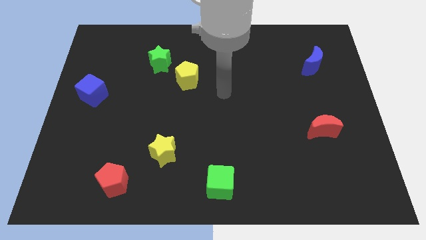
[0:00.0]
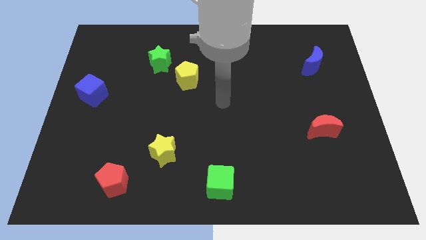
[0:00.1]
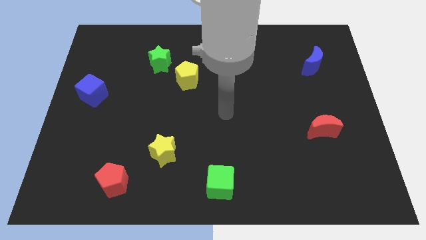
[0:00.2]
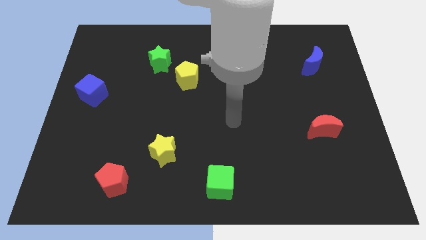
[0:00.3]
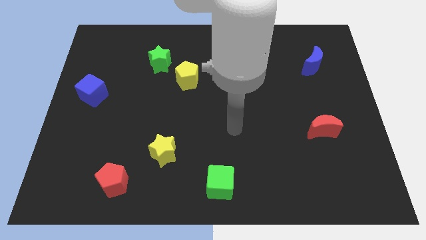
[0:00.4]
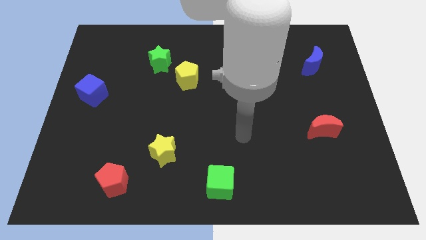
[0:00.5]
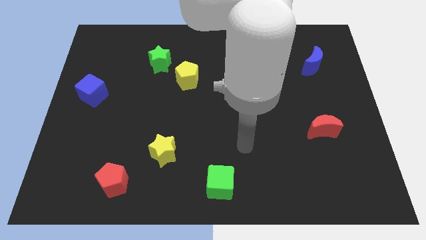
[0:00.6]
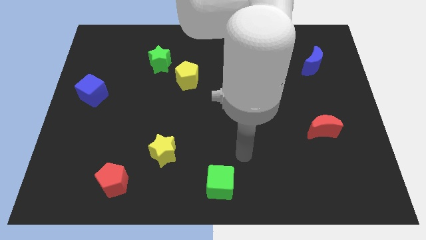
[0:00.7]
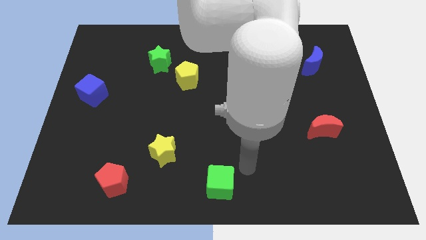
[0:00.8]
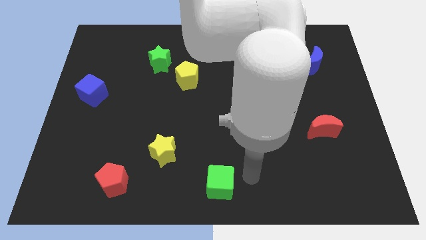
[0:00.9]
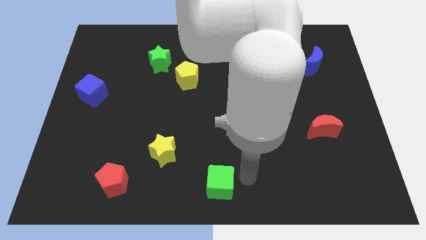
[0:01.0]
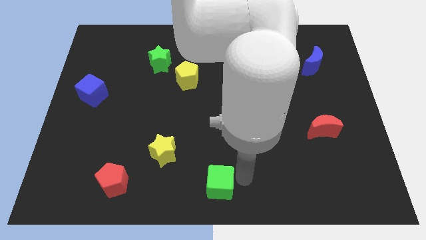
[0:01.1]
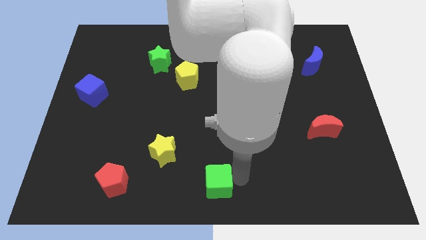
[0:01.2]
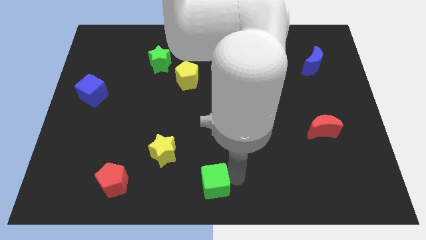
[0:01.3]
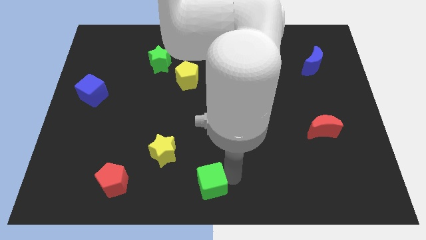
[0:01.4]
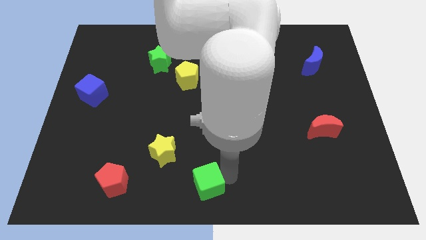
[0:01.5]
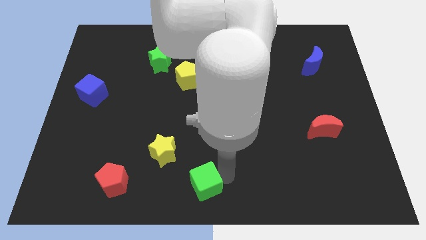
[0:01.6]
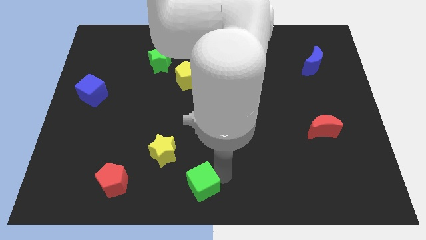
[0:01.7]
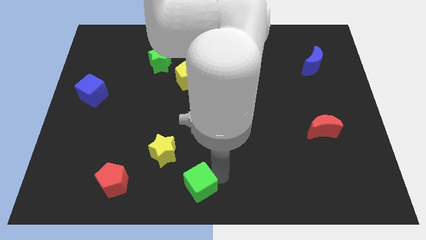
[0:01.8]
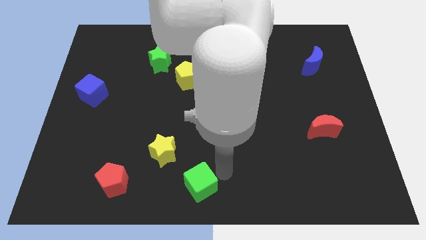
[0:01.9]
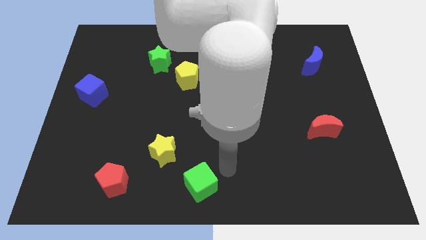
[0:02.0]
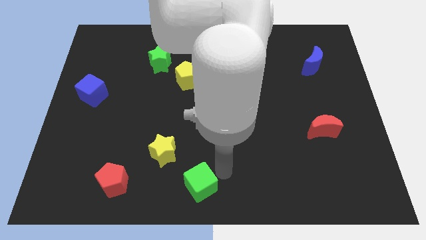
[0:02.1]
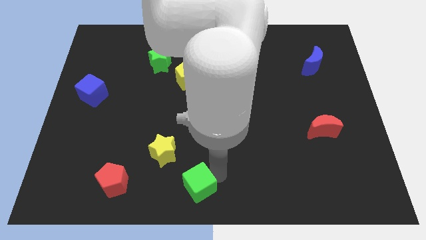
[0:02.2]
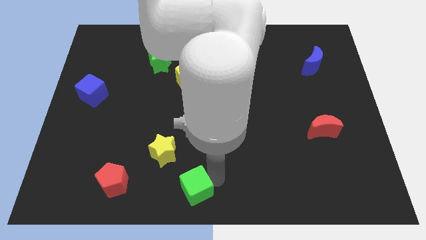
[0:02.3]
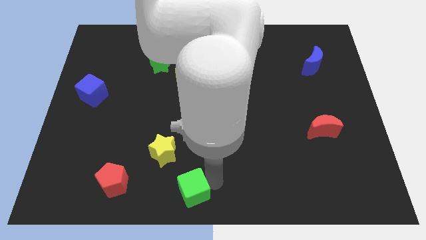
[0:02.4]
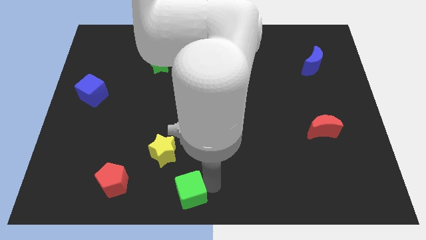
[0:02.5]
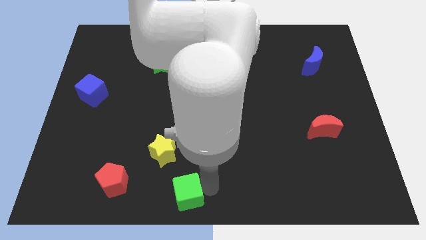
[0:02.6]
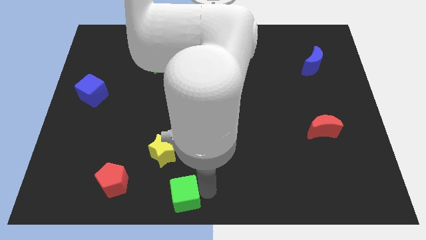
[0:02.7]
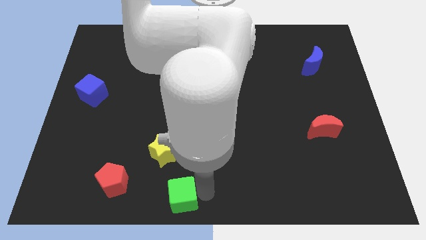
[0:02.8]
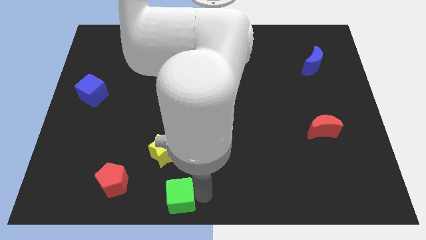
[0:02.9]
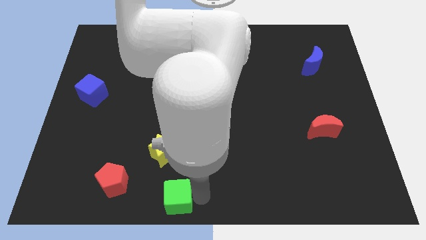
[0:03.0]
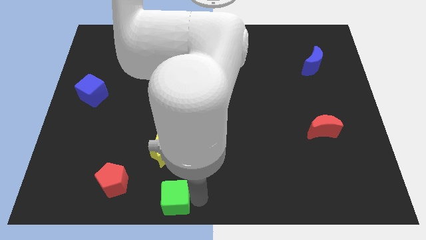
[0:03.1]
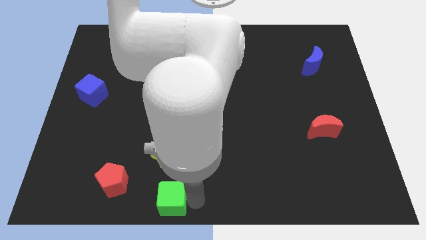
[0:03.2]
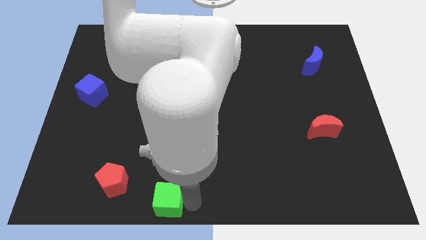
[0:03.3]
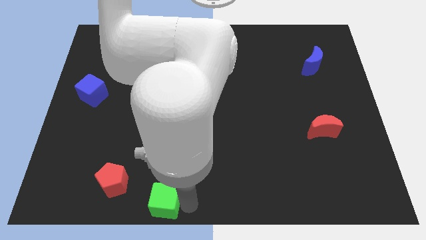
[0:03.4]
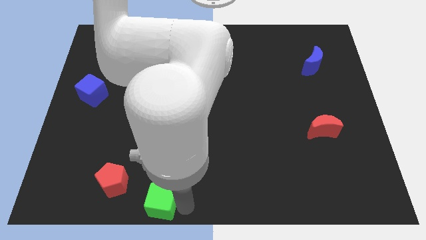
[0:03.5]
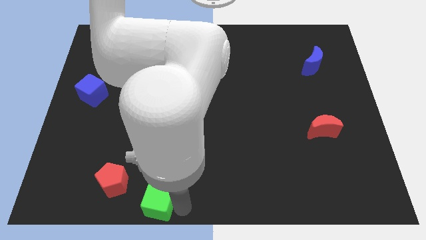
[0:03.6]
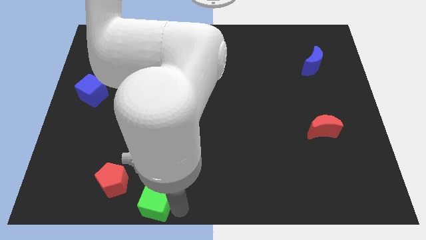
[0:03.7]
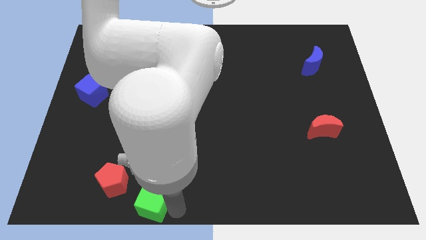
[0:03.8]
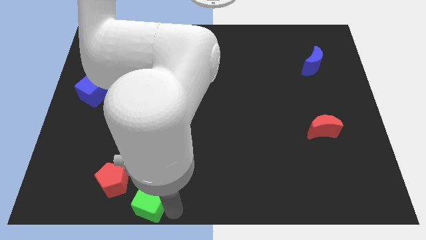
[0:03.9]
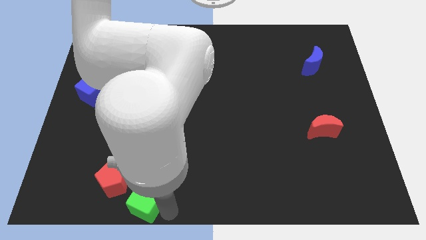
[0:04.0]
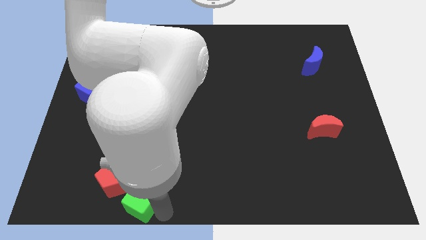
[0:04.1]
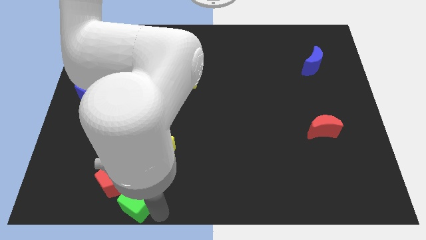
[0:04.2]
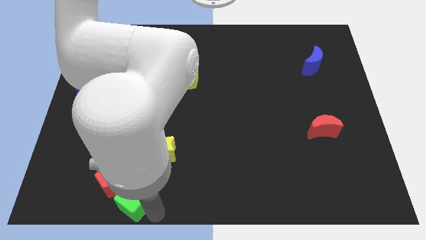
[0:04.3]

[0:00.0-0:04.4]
put the green cube to the red pentagon

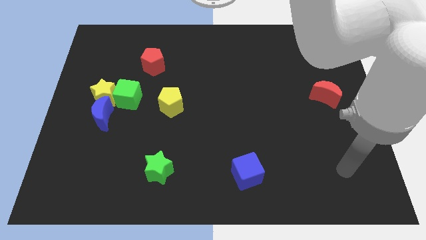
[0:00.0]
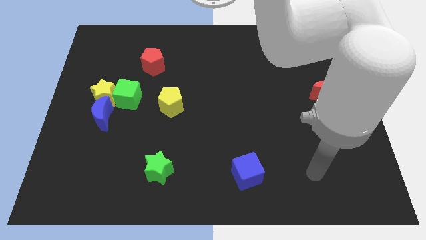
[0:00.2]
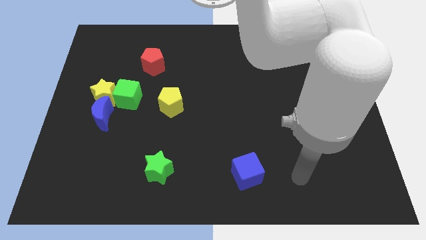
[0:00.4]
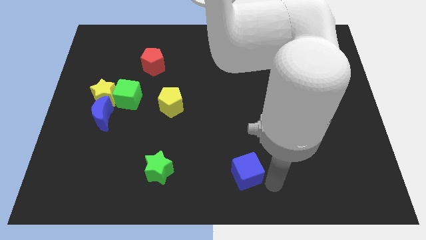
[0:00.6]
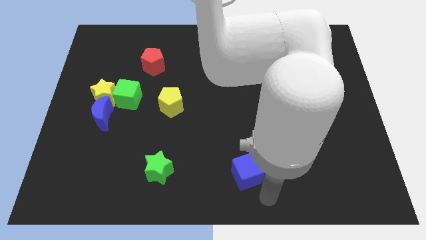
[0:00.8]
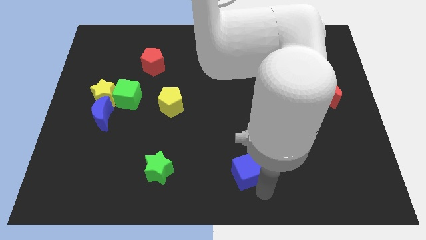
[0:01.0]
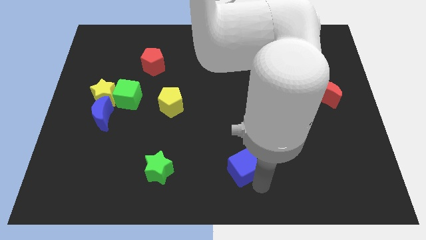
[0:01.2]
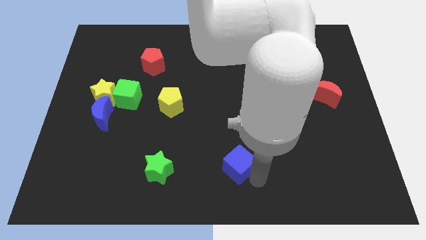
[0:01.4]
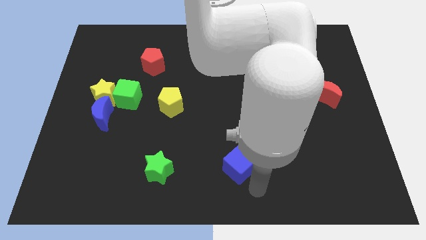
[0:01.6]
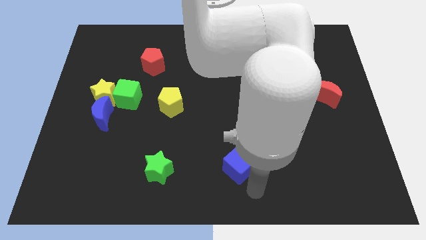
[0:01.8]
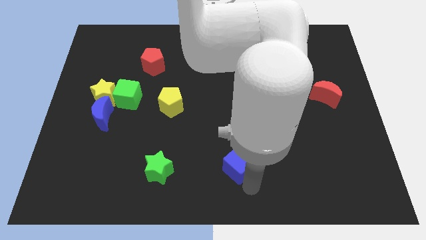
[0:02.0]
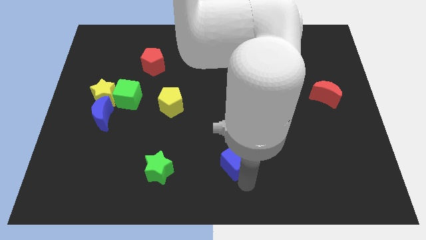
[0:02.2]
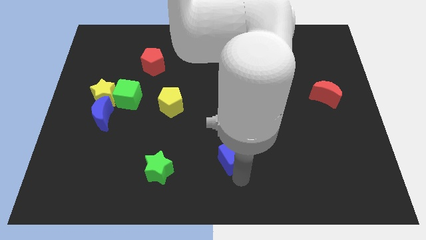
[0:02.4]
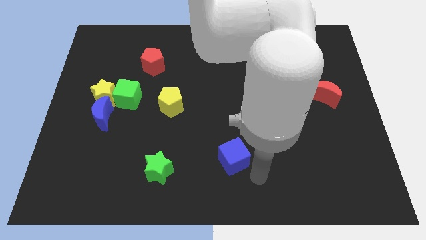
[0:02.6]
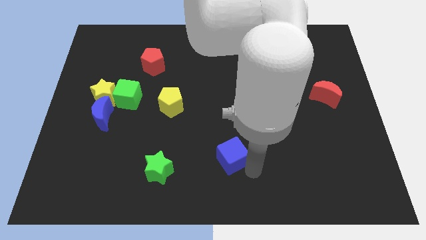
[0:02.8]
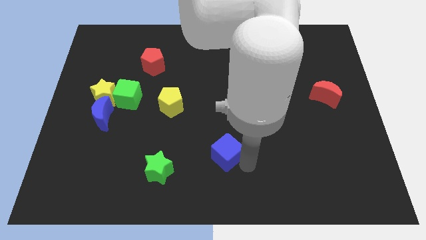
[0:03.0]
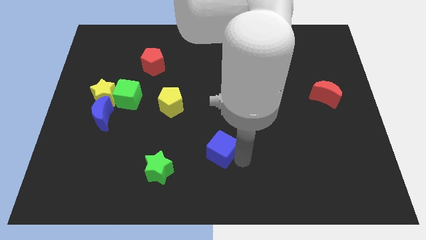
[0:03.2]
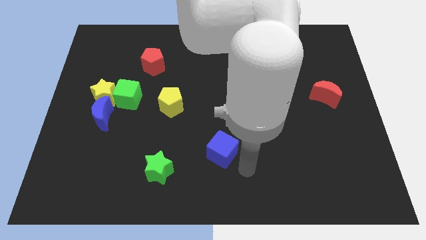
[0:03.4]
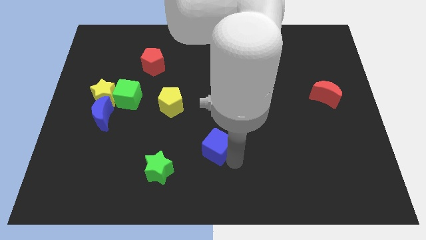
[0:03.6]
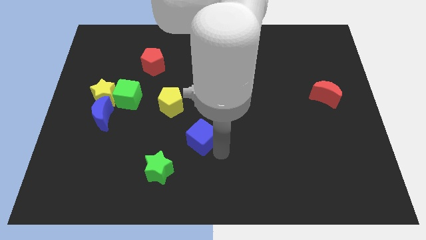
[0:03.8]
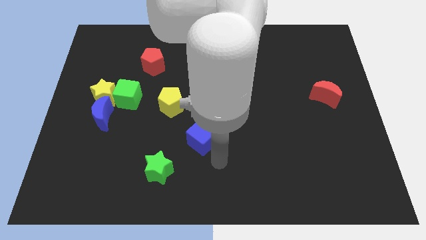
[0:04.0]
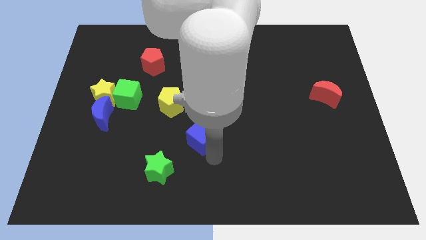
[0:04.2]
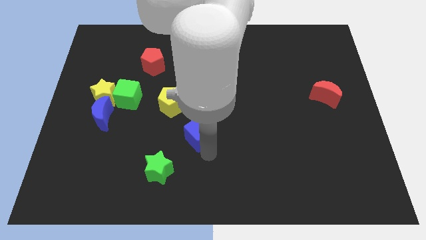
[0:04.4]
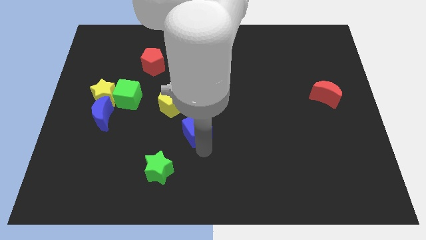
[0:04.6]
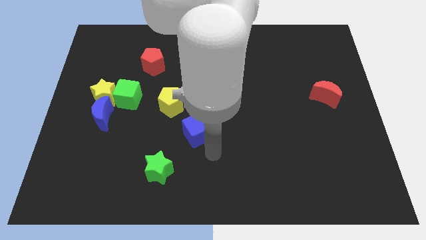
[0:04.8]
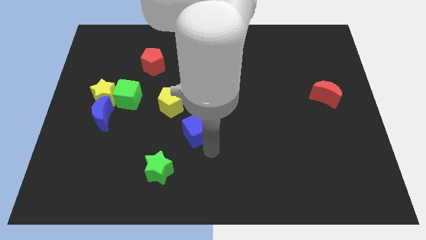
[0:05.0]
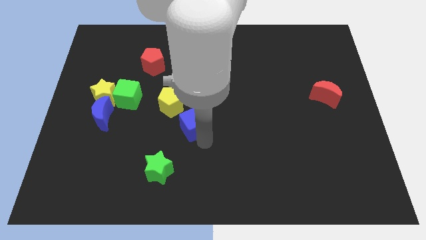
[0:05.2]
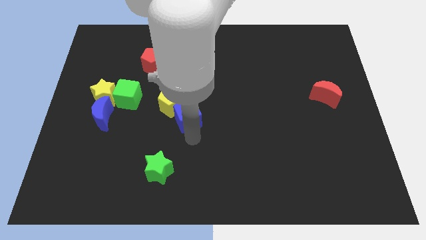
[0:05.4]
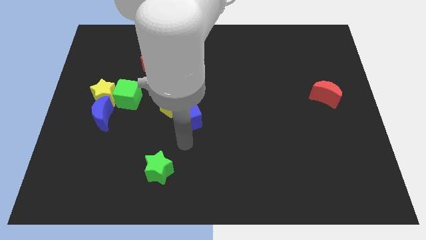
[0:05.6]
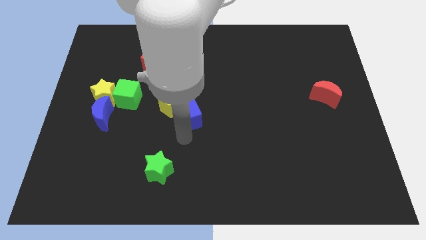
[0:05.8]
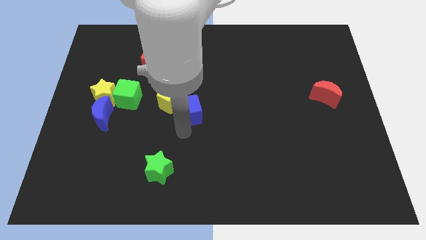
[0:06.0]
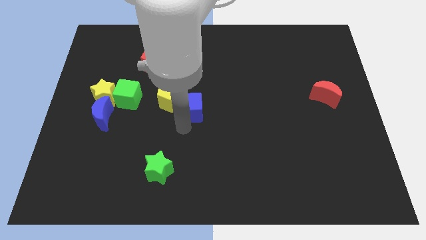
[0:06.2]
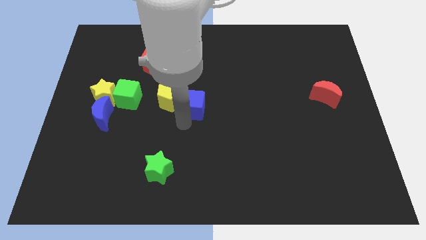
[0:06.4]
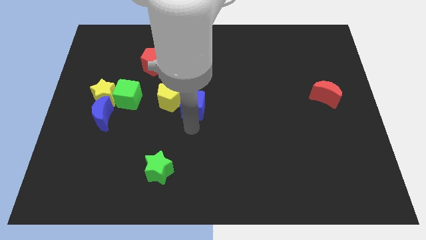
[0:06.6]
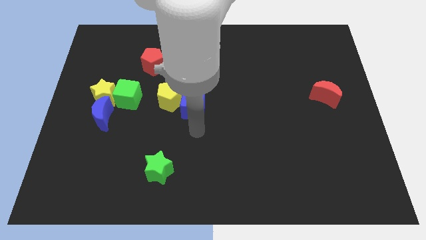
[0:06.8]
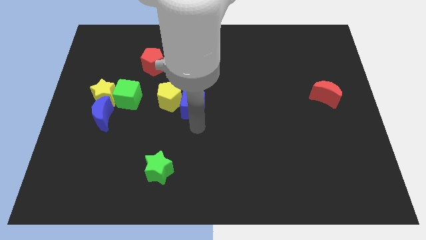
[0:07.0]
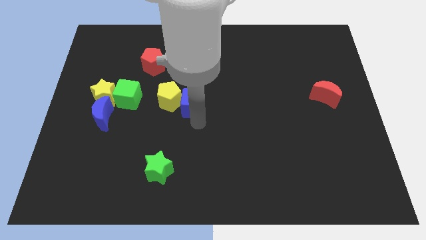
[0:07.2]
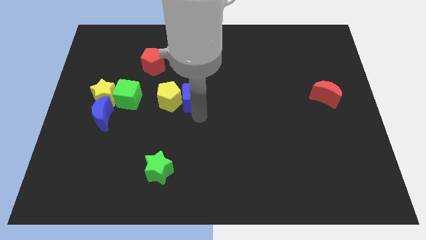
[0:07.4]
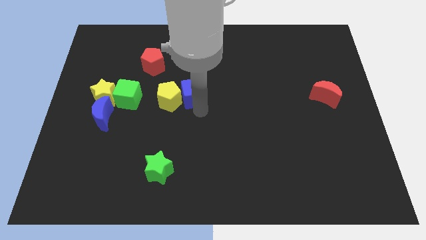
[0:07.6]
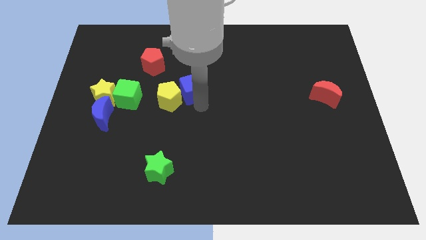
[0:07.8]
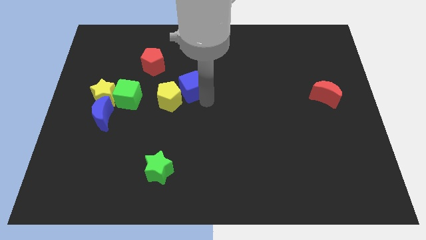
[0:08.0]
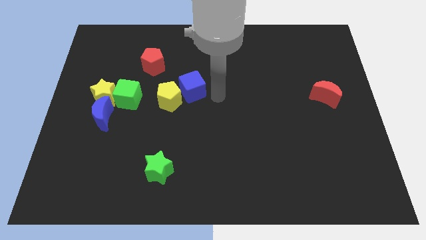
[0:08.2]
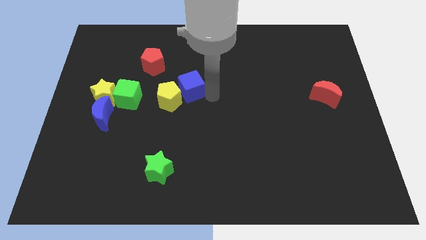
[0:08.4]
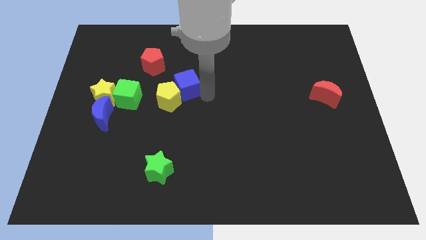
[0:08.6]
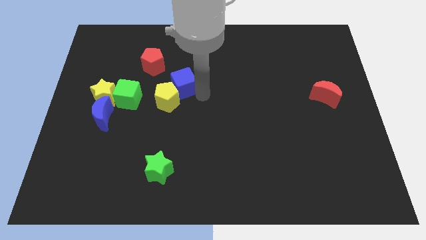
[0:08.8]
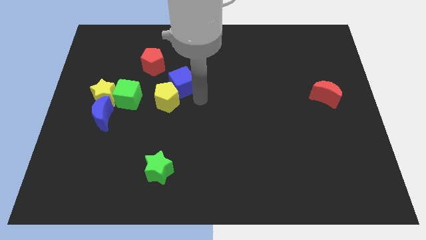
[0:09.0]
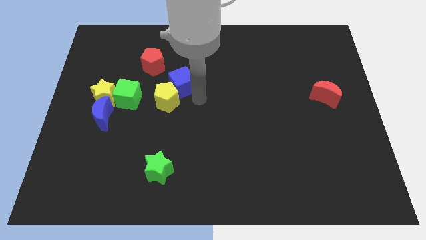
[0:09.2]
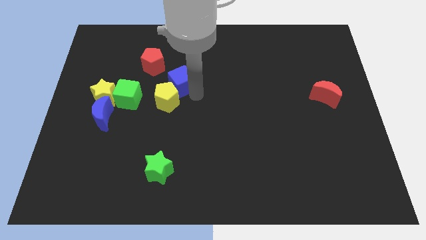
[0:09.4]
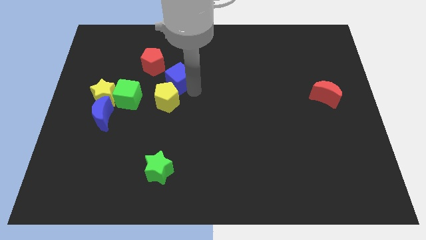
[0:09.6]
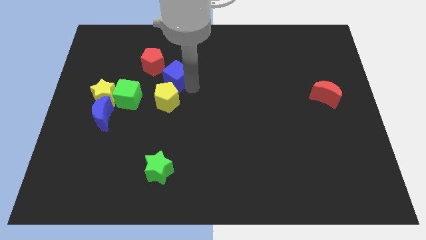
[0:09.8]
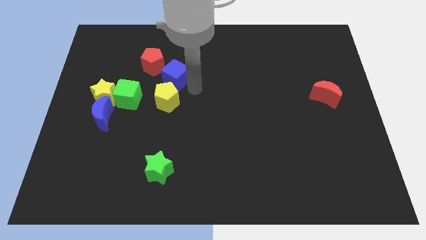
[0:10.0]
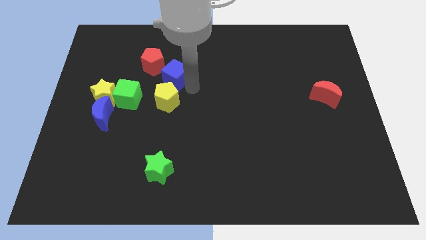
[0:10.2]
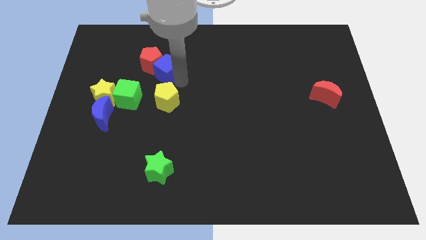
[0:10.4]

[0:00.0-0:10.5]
push the blue cube next to the red pentagon
